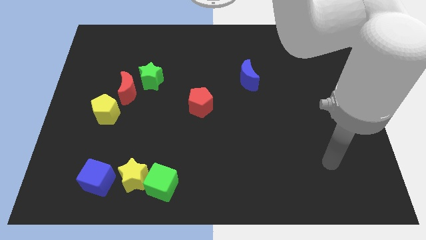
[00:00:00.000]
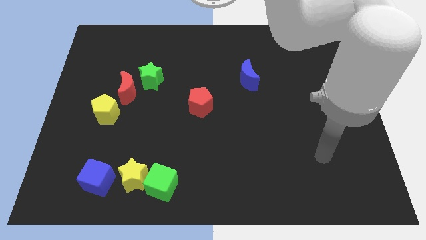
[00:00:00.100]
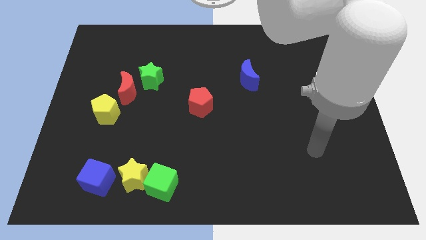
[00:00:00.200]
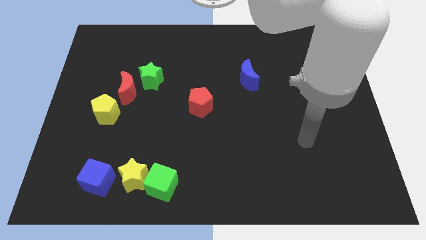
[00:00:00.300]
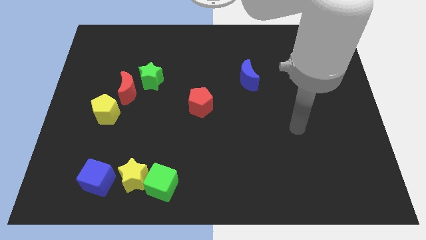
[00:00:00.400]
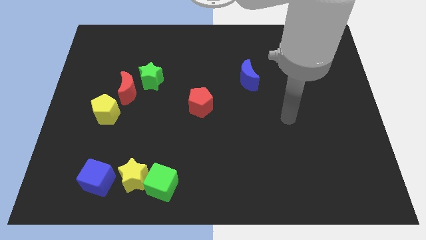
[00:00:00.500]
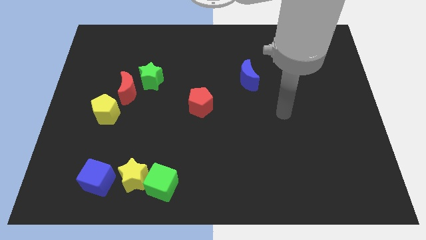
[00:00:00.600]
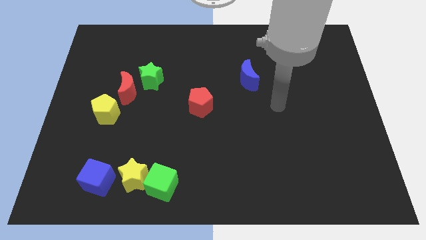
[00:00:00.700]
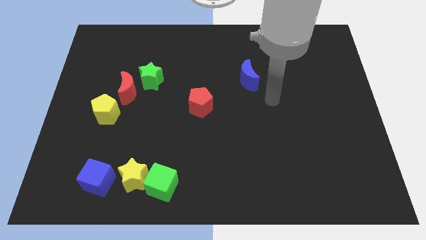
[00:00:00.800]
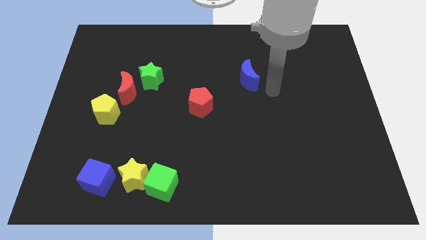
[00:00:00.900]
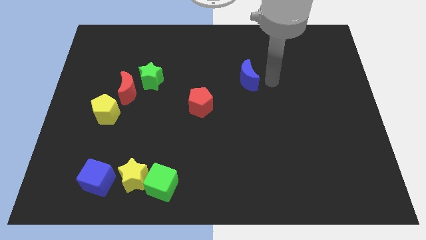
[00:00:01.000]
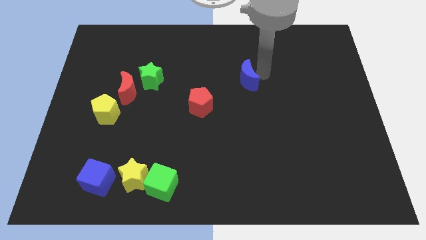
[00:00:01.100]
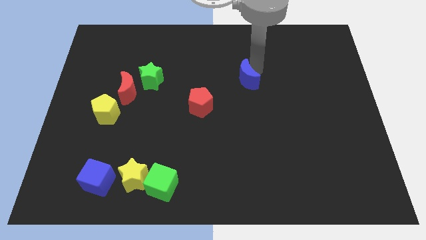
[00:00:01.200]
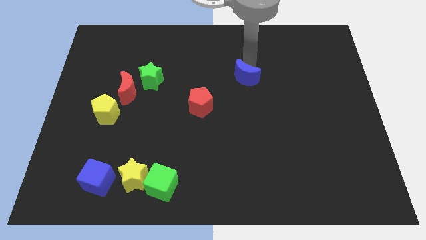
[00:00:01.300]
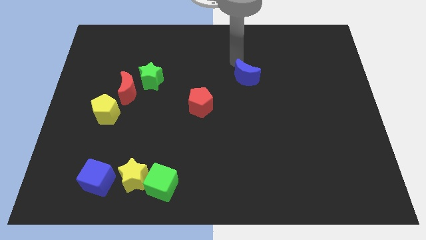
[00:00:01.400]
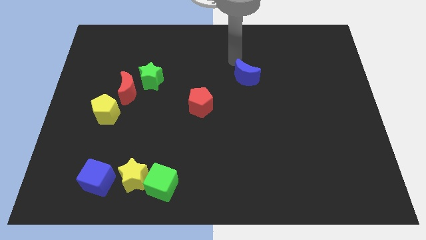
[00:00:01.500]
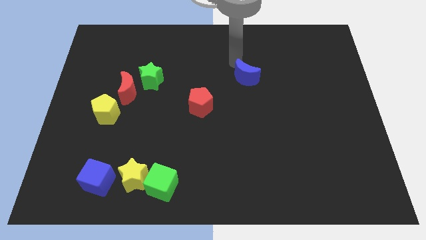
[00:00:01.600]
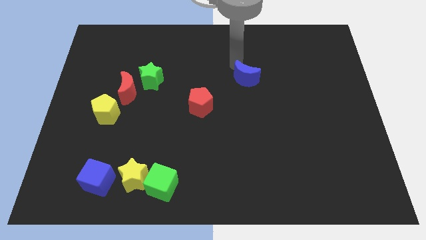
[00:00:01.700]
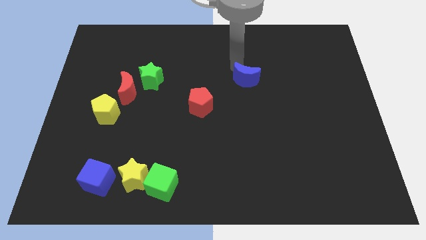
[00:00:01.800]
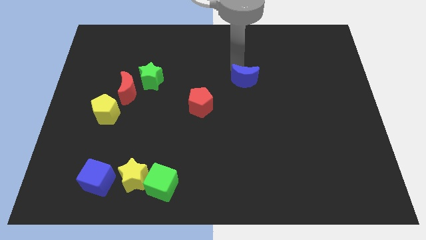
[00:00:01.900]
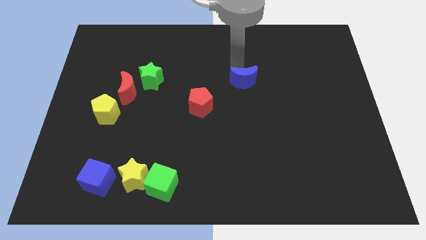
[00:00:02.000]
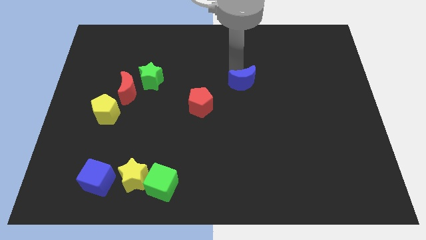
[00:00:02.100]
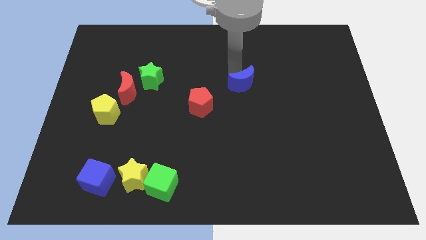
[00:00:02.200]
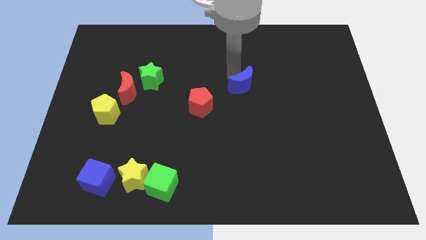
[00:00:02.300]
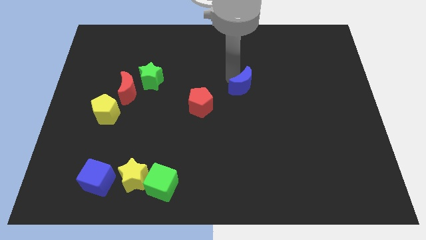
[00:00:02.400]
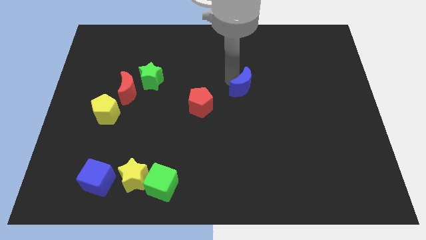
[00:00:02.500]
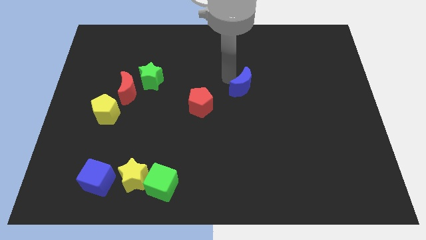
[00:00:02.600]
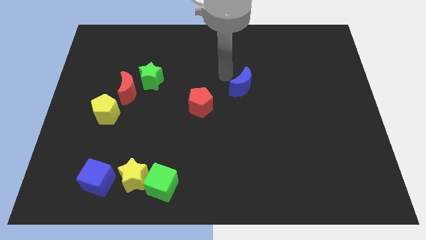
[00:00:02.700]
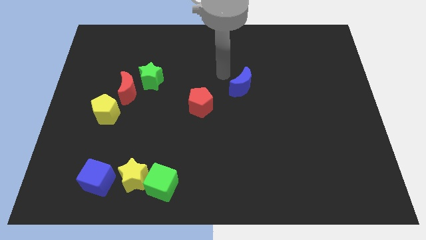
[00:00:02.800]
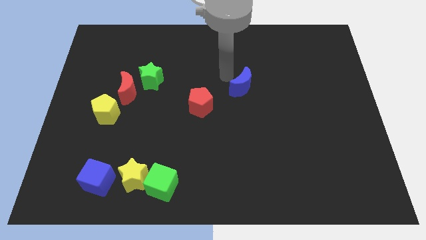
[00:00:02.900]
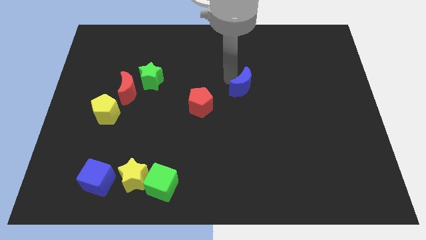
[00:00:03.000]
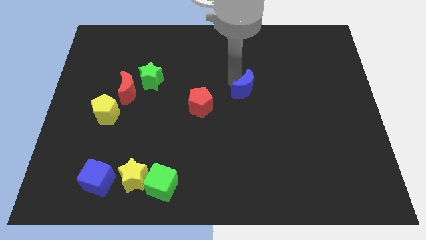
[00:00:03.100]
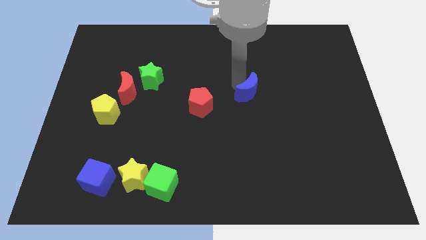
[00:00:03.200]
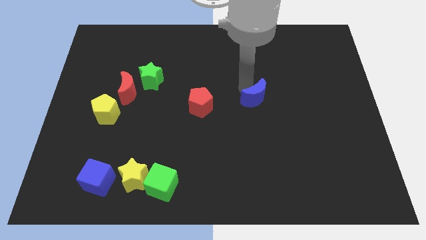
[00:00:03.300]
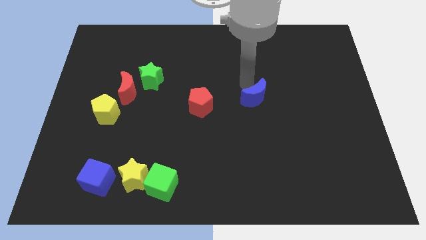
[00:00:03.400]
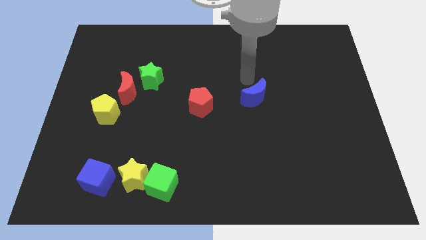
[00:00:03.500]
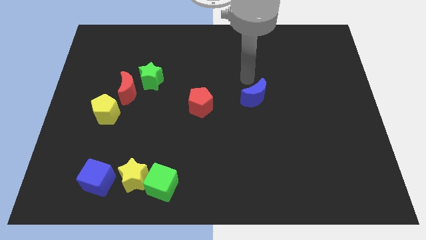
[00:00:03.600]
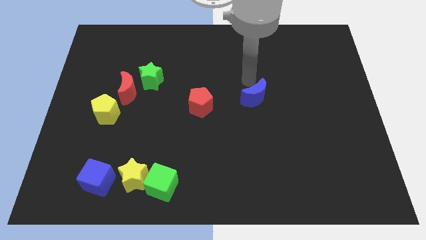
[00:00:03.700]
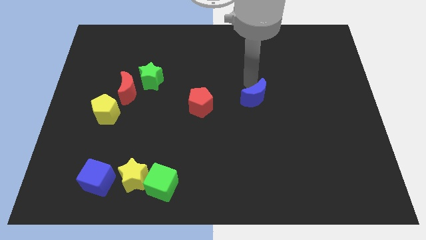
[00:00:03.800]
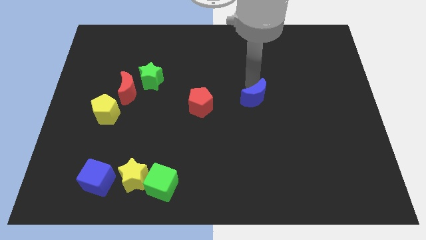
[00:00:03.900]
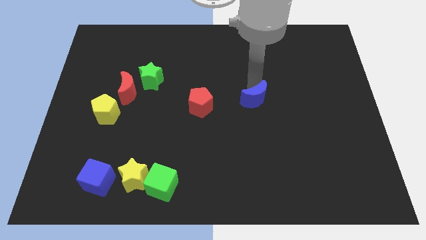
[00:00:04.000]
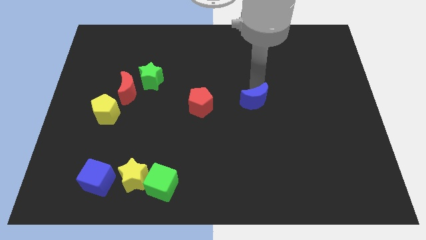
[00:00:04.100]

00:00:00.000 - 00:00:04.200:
slide the blue moon downwards a little

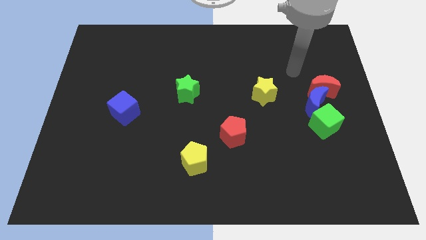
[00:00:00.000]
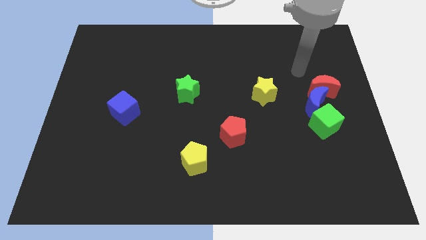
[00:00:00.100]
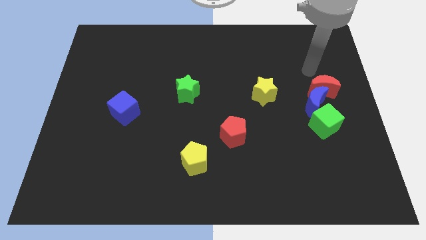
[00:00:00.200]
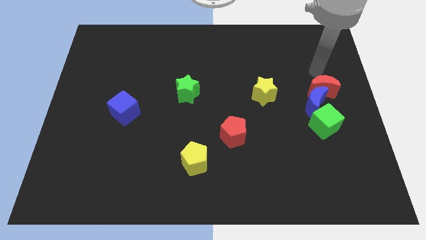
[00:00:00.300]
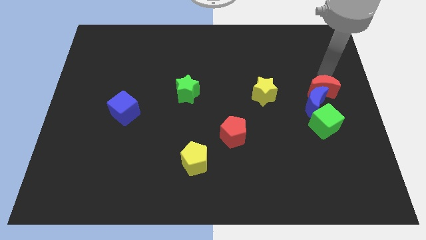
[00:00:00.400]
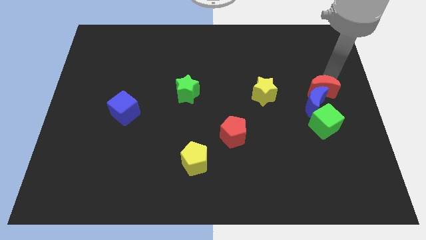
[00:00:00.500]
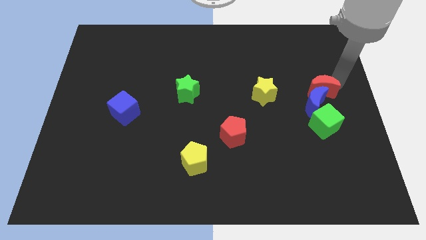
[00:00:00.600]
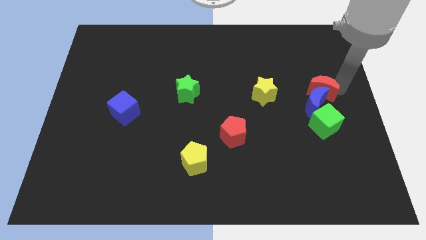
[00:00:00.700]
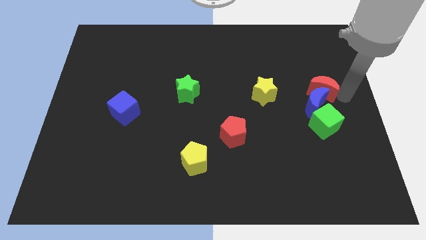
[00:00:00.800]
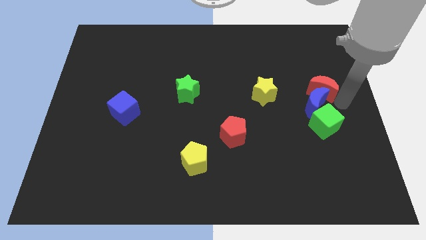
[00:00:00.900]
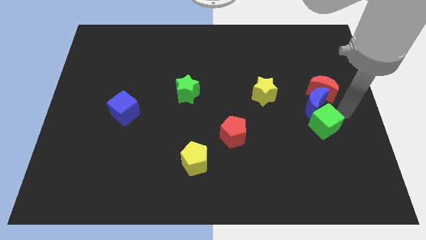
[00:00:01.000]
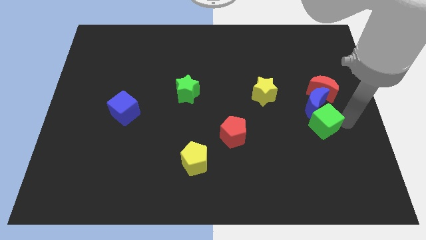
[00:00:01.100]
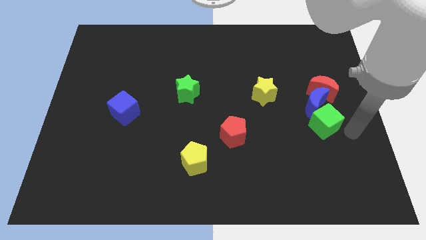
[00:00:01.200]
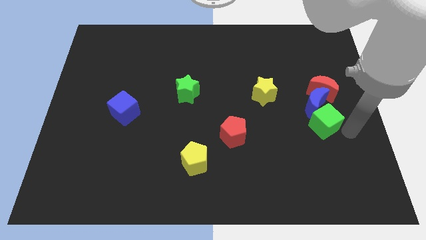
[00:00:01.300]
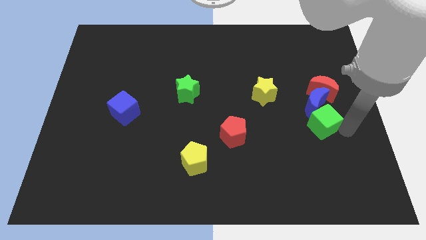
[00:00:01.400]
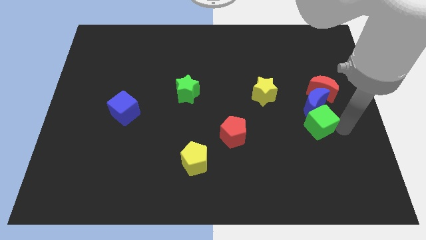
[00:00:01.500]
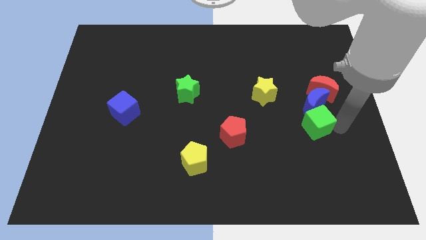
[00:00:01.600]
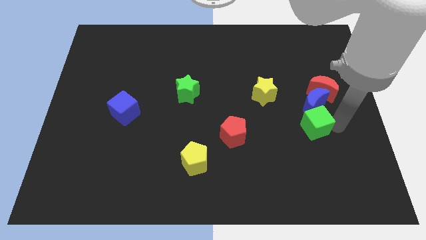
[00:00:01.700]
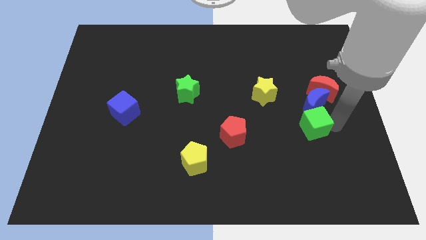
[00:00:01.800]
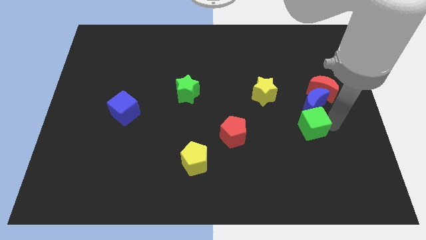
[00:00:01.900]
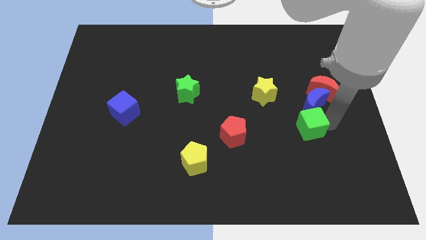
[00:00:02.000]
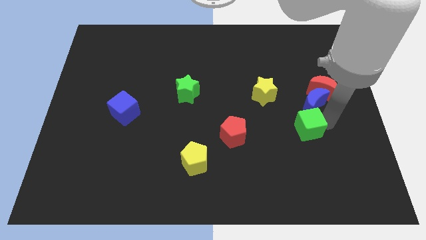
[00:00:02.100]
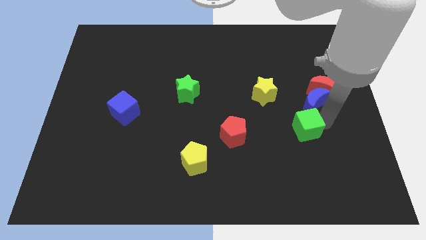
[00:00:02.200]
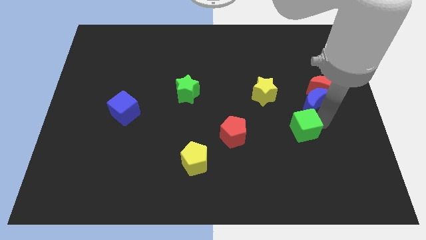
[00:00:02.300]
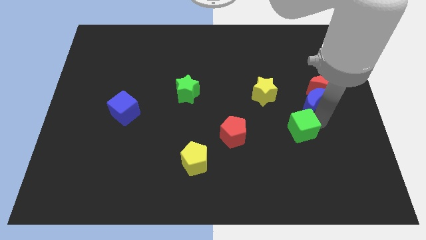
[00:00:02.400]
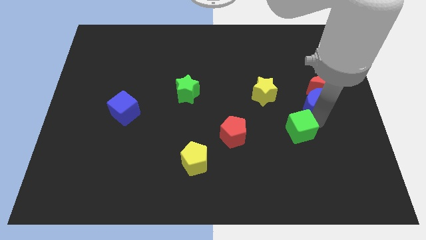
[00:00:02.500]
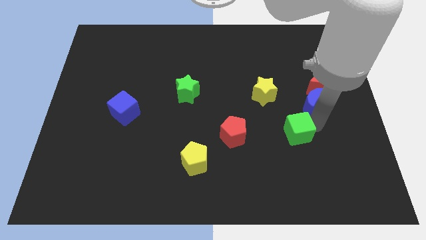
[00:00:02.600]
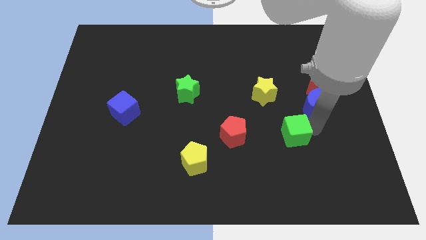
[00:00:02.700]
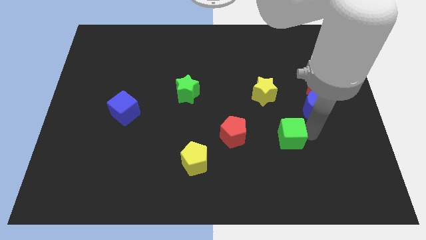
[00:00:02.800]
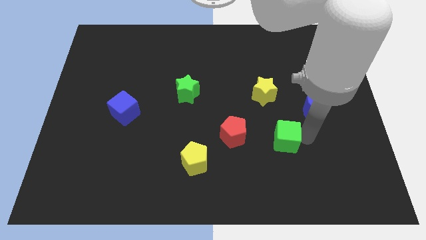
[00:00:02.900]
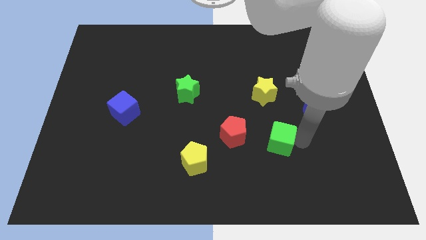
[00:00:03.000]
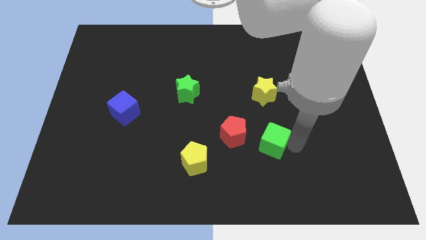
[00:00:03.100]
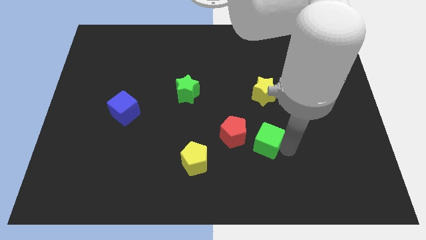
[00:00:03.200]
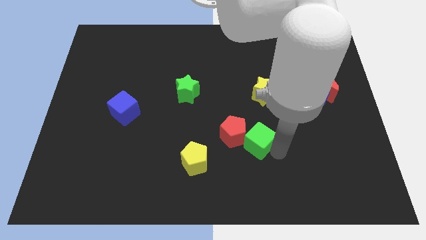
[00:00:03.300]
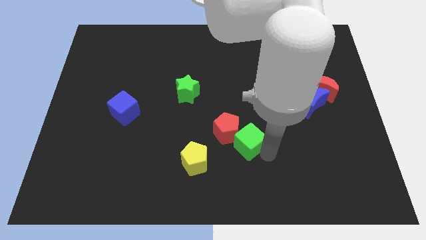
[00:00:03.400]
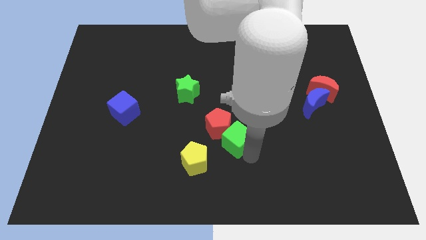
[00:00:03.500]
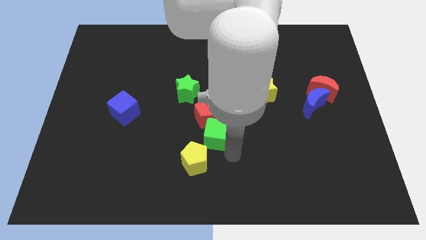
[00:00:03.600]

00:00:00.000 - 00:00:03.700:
move the green cube to the left

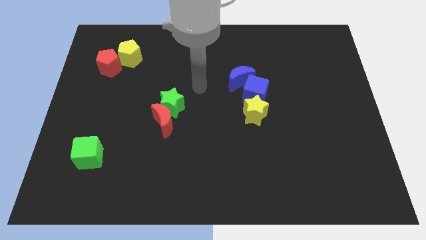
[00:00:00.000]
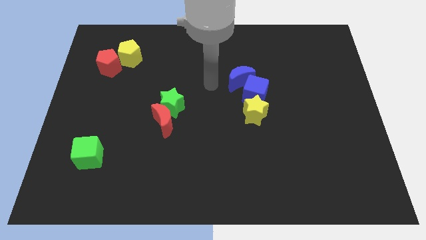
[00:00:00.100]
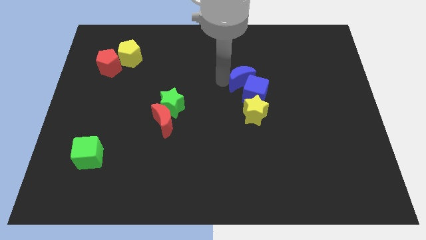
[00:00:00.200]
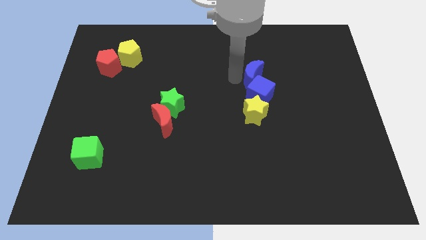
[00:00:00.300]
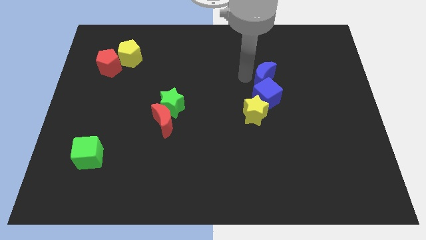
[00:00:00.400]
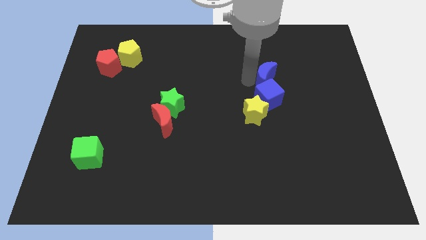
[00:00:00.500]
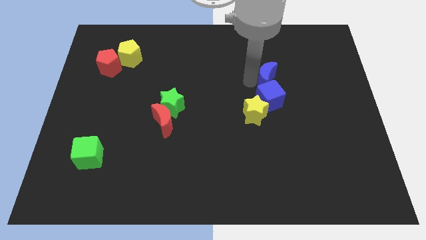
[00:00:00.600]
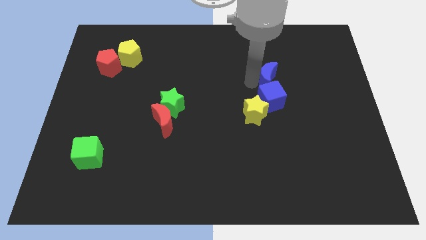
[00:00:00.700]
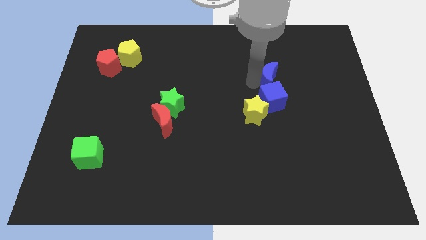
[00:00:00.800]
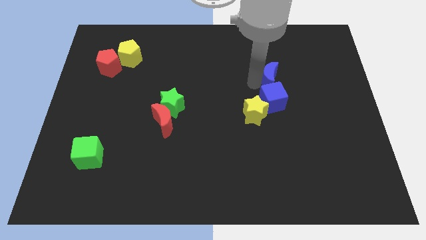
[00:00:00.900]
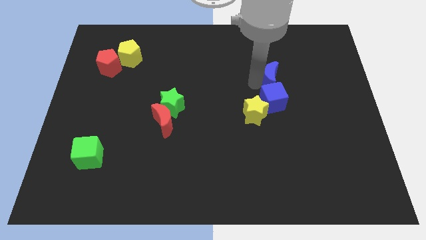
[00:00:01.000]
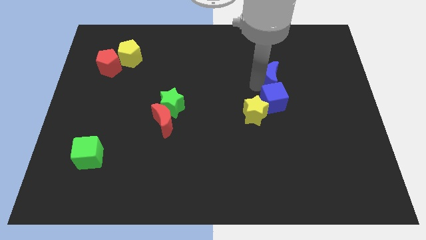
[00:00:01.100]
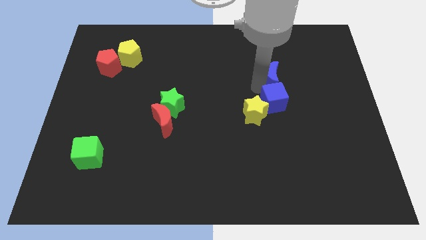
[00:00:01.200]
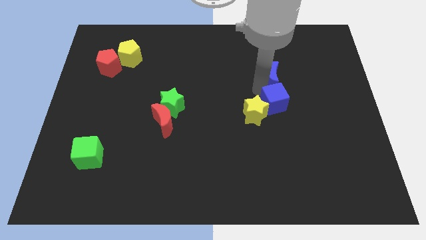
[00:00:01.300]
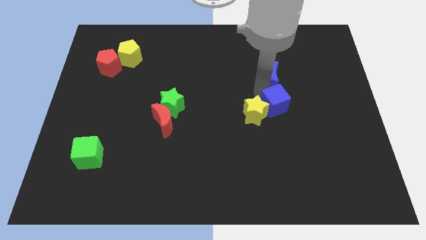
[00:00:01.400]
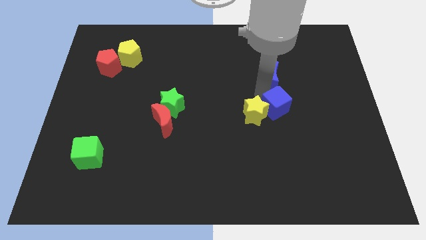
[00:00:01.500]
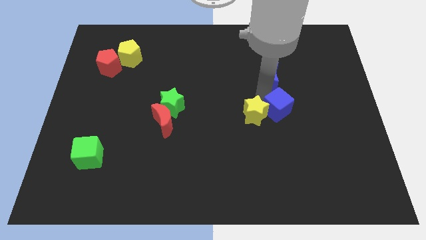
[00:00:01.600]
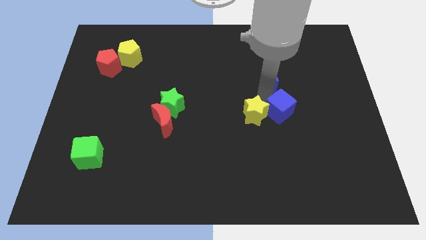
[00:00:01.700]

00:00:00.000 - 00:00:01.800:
slightly move the blue cube diagonally down and to the right
